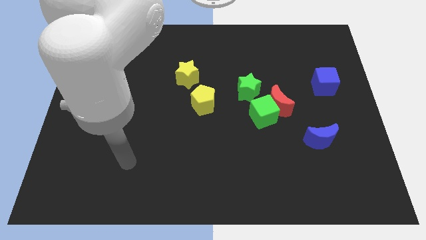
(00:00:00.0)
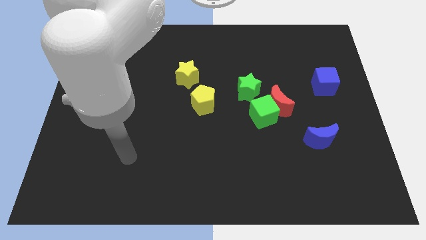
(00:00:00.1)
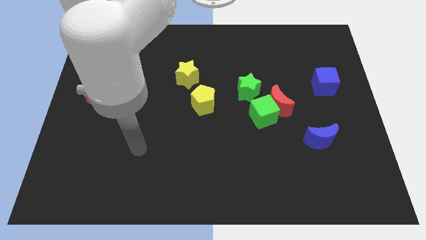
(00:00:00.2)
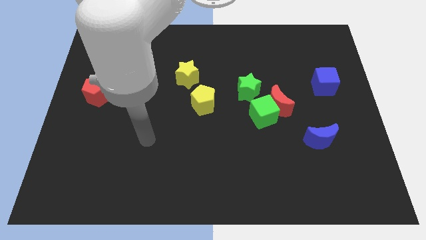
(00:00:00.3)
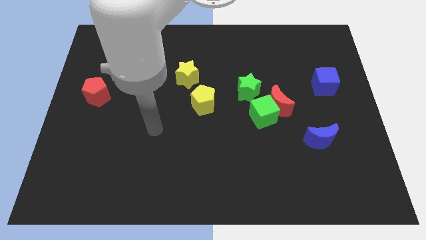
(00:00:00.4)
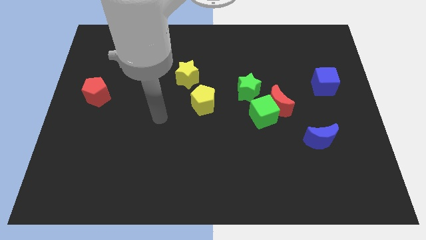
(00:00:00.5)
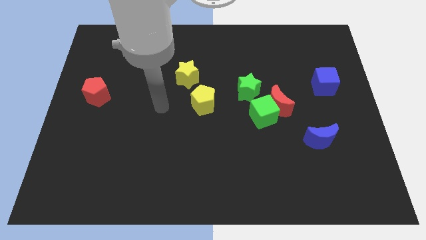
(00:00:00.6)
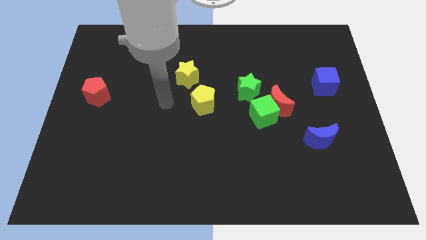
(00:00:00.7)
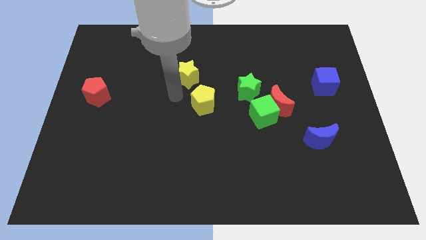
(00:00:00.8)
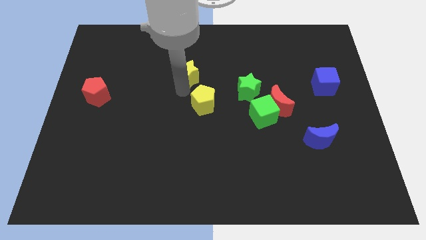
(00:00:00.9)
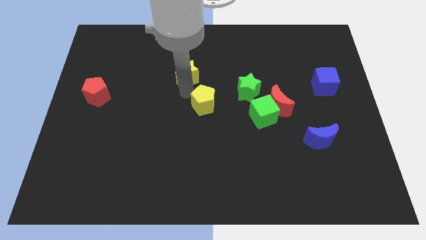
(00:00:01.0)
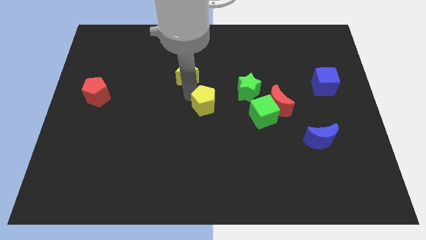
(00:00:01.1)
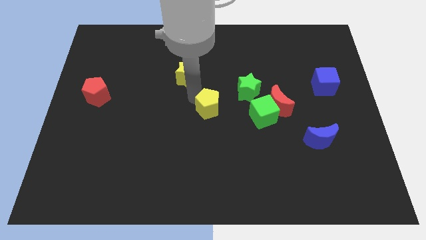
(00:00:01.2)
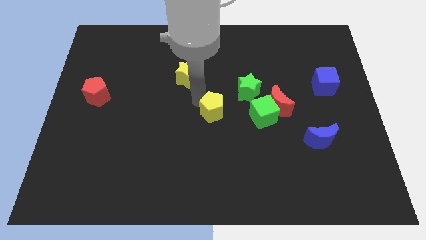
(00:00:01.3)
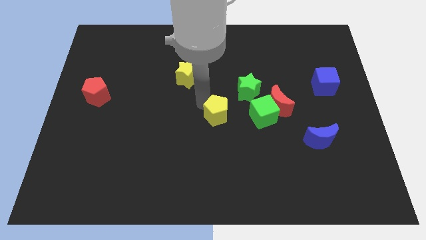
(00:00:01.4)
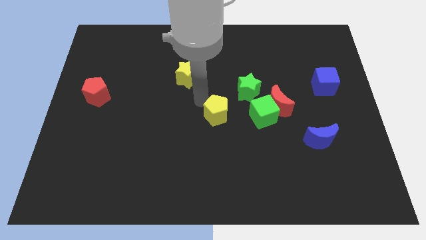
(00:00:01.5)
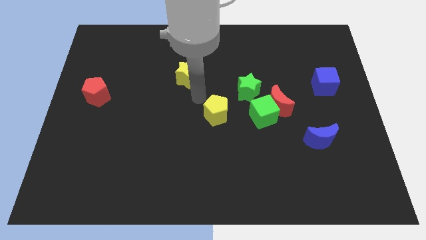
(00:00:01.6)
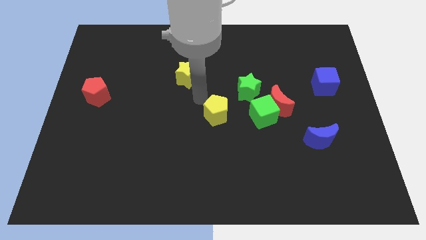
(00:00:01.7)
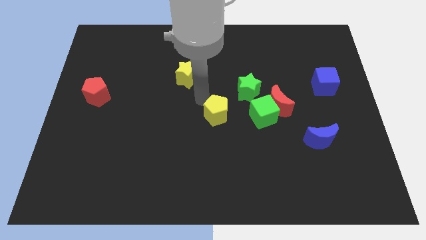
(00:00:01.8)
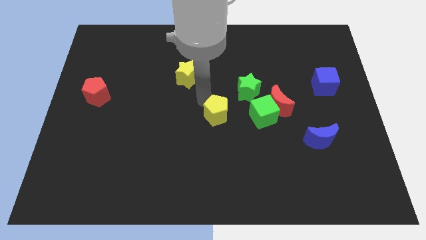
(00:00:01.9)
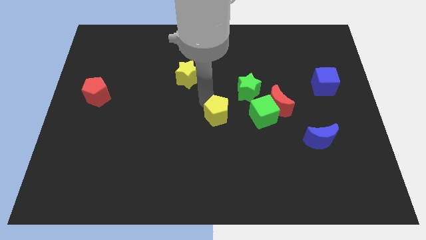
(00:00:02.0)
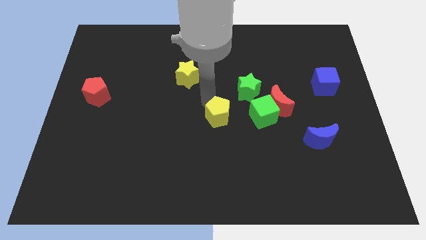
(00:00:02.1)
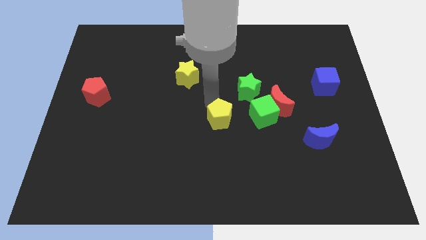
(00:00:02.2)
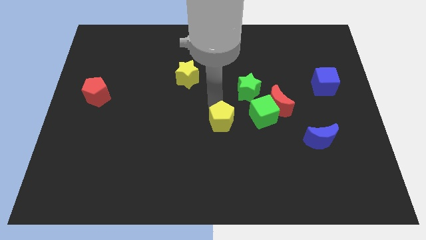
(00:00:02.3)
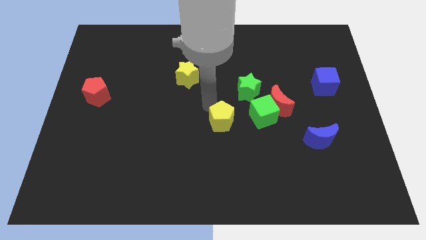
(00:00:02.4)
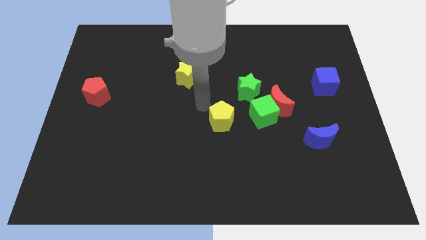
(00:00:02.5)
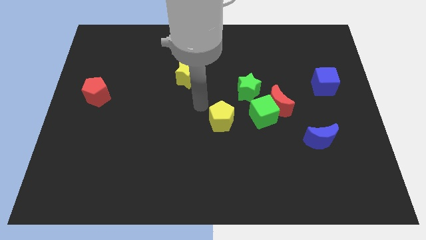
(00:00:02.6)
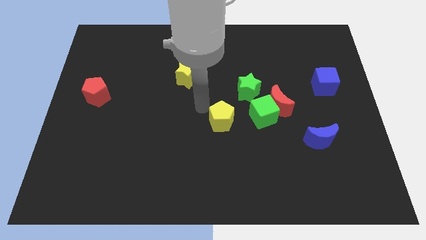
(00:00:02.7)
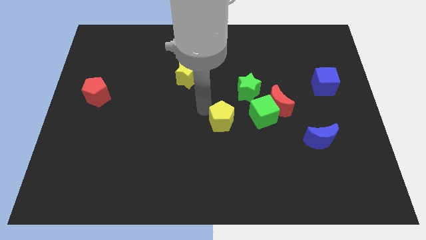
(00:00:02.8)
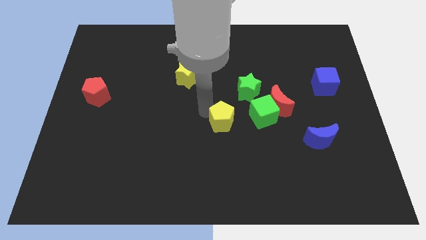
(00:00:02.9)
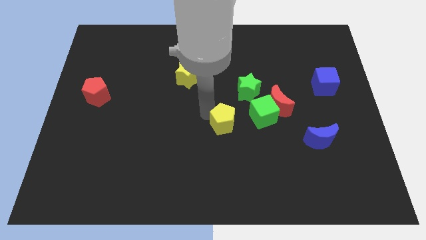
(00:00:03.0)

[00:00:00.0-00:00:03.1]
push the yellow pentagon a little bit diagonally downwards and to the right

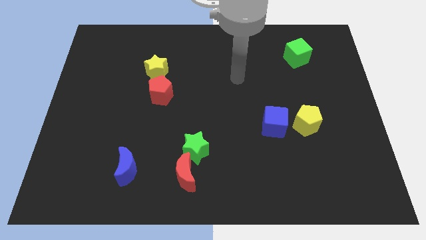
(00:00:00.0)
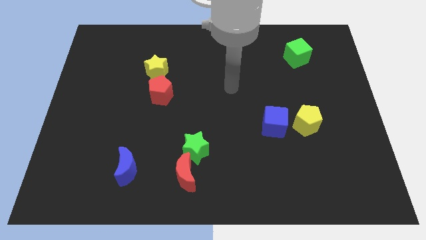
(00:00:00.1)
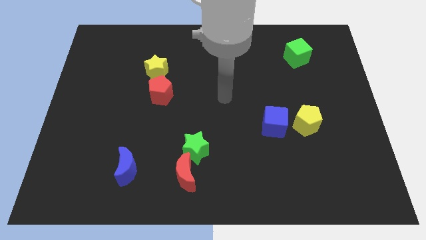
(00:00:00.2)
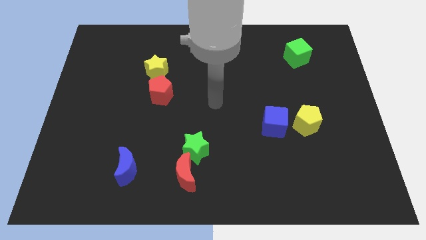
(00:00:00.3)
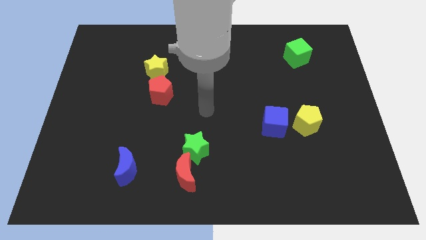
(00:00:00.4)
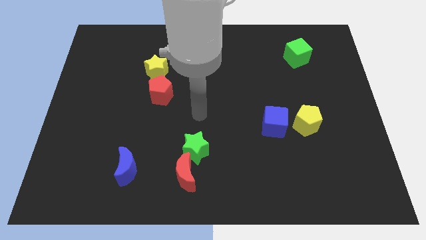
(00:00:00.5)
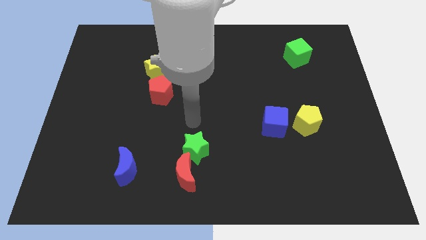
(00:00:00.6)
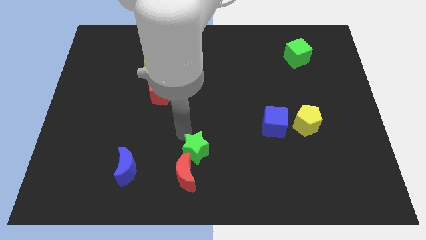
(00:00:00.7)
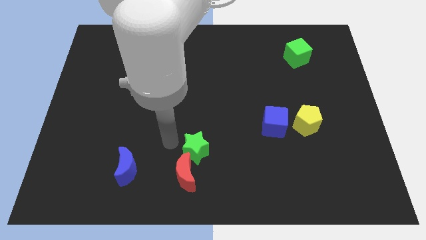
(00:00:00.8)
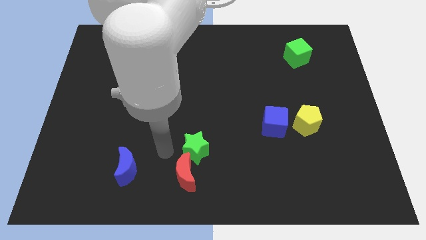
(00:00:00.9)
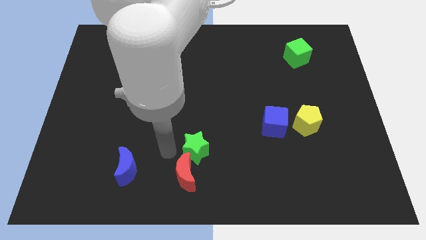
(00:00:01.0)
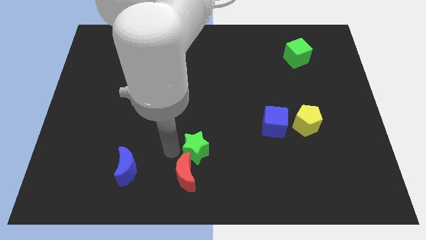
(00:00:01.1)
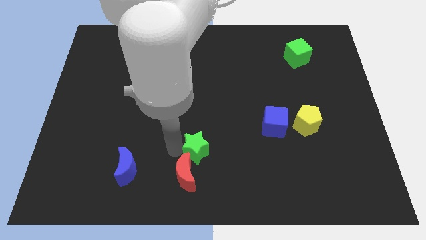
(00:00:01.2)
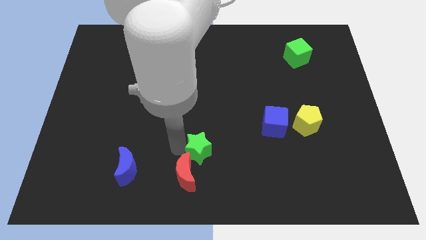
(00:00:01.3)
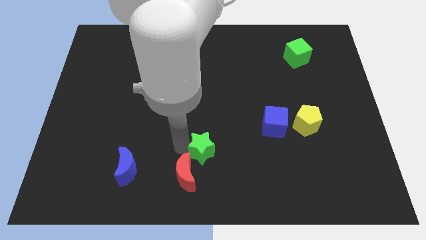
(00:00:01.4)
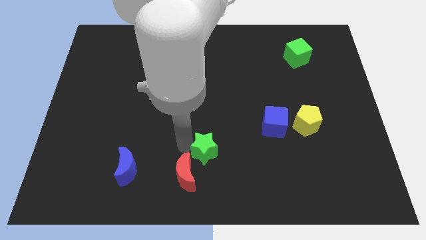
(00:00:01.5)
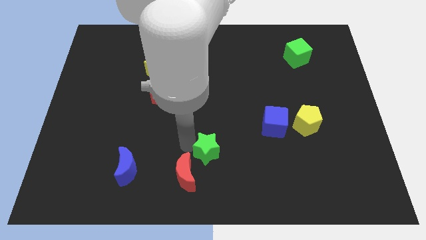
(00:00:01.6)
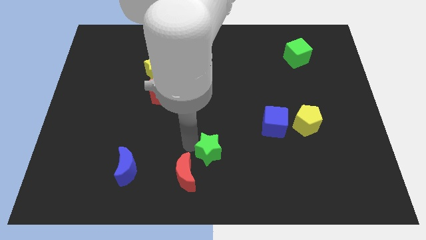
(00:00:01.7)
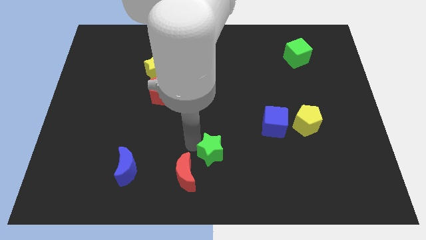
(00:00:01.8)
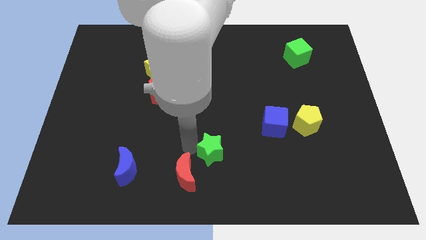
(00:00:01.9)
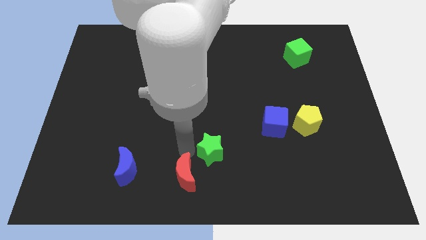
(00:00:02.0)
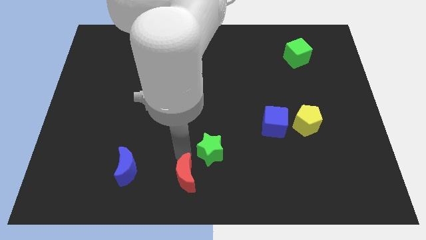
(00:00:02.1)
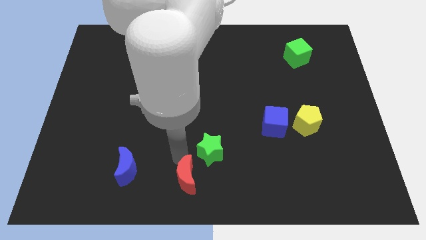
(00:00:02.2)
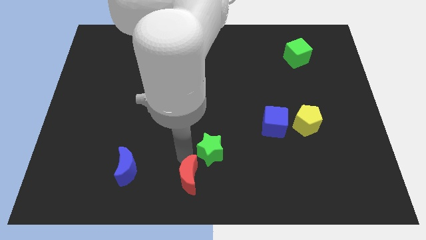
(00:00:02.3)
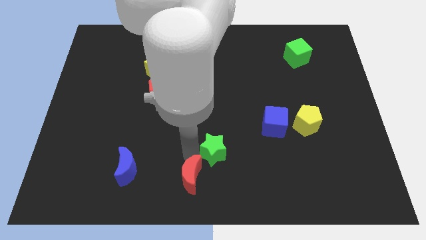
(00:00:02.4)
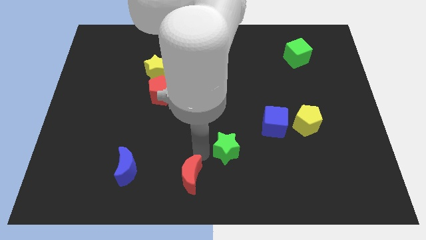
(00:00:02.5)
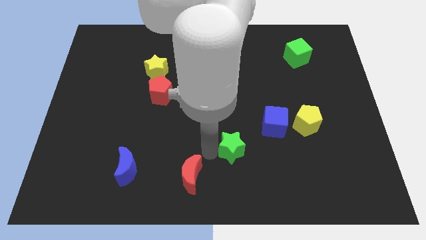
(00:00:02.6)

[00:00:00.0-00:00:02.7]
slide the green star right a bit

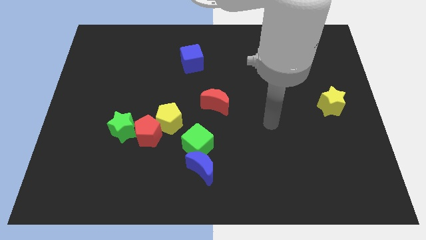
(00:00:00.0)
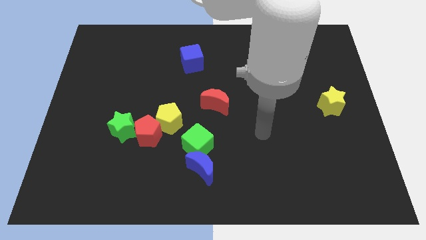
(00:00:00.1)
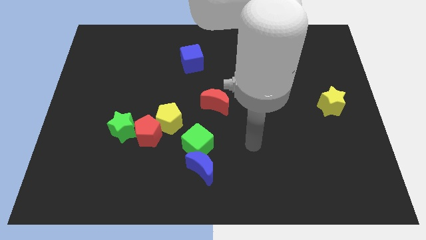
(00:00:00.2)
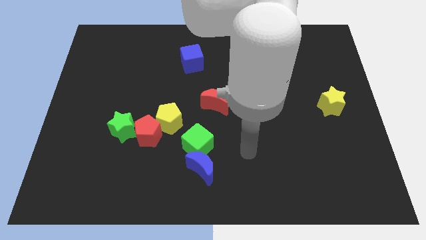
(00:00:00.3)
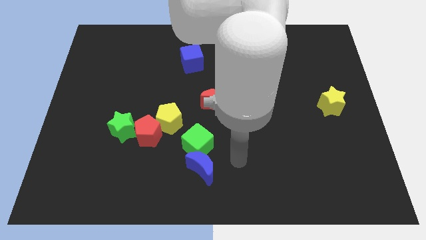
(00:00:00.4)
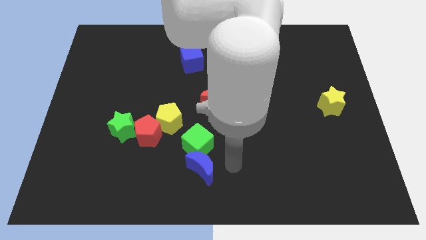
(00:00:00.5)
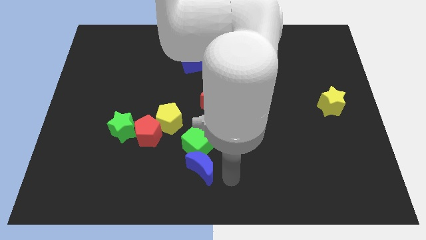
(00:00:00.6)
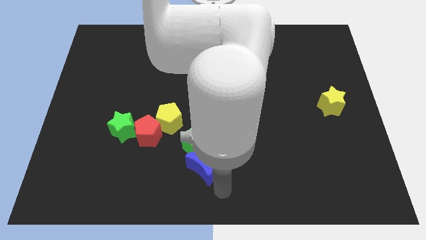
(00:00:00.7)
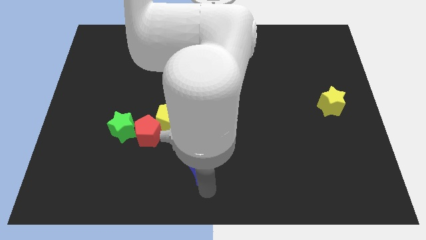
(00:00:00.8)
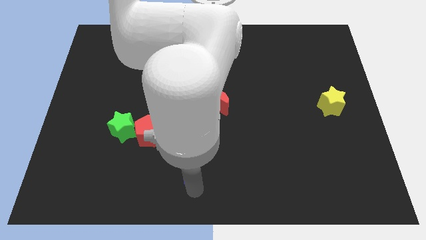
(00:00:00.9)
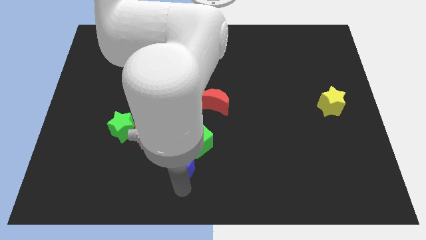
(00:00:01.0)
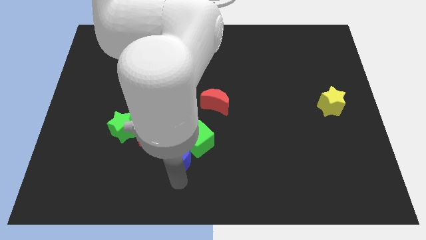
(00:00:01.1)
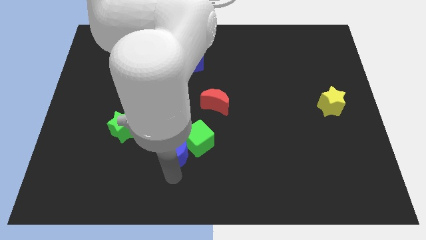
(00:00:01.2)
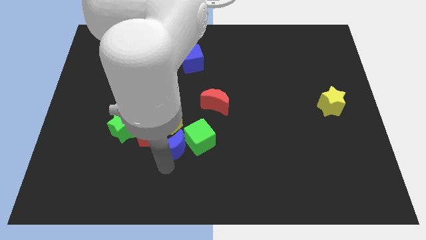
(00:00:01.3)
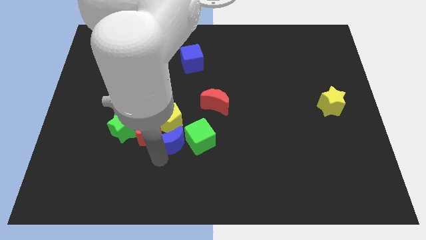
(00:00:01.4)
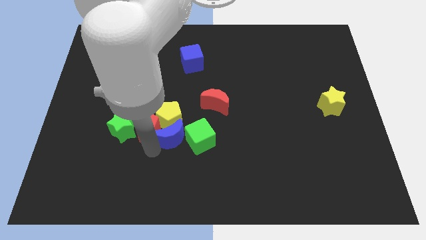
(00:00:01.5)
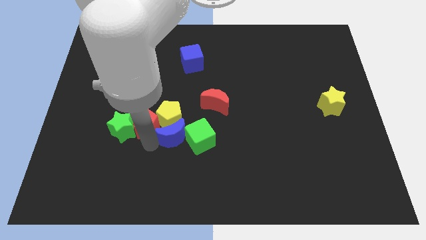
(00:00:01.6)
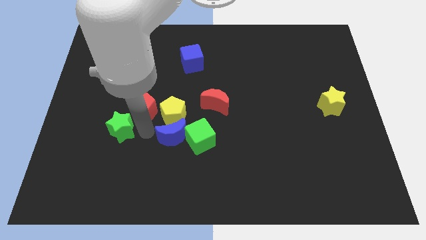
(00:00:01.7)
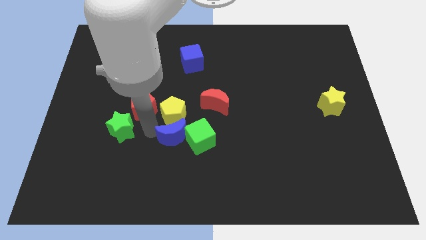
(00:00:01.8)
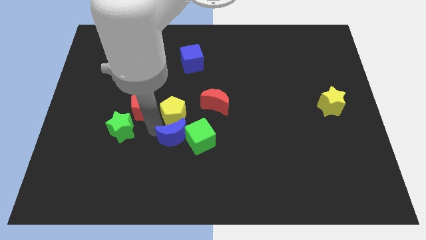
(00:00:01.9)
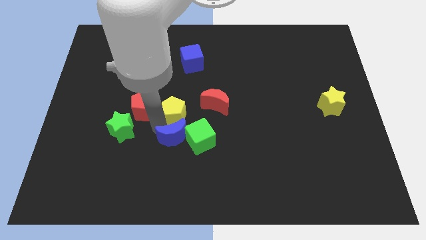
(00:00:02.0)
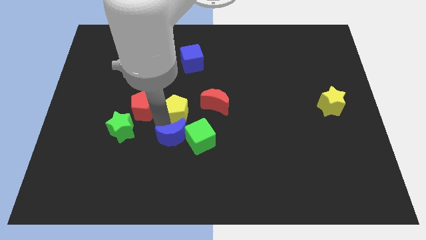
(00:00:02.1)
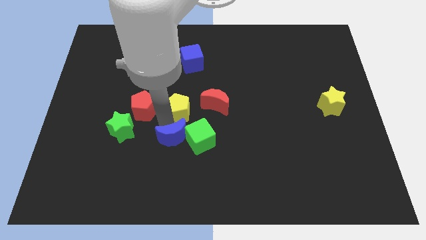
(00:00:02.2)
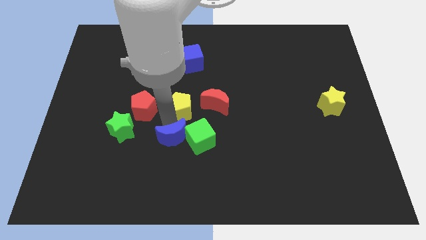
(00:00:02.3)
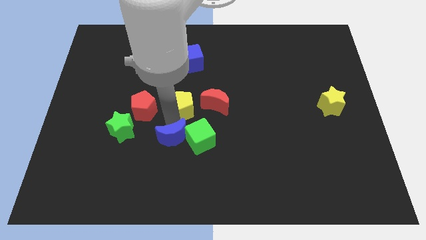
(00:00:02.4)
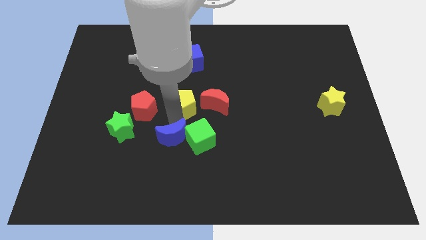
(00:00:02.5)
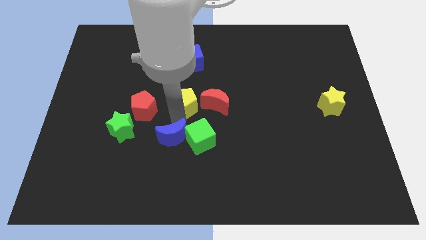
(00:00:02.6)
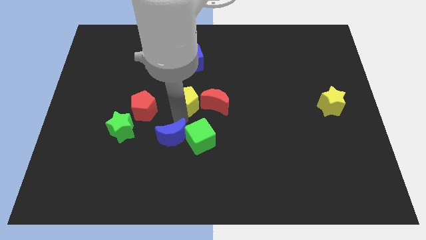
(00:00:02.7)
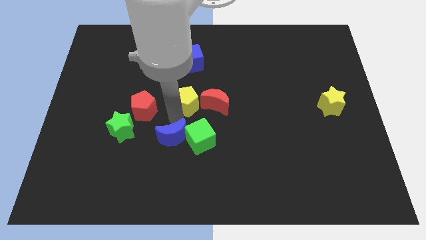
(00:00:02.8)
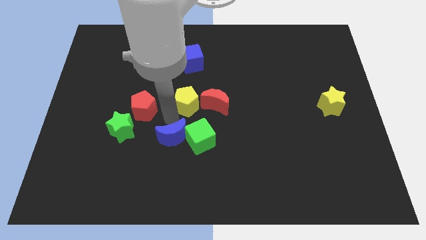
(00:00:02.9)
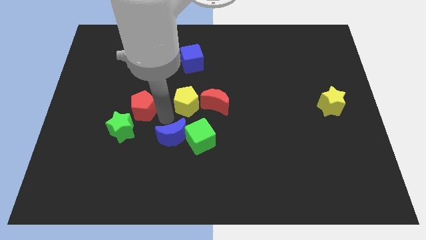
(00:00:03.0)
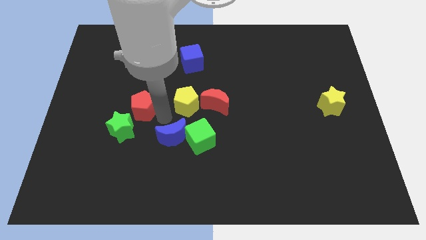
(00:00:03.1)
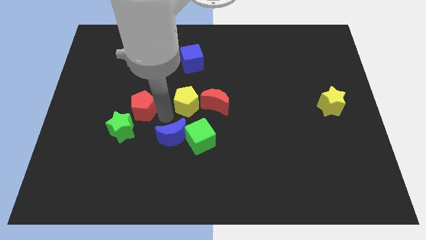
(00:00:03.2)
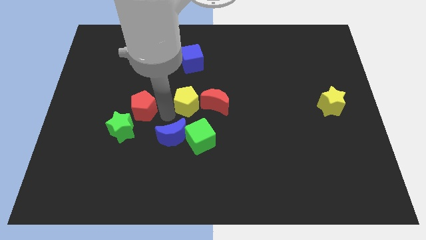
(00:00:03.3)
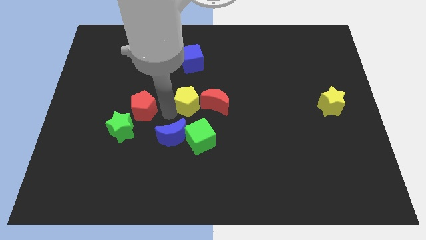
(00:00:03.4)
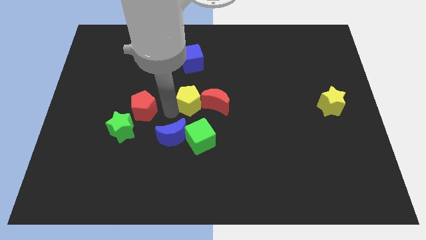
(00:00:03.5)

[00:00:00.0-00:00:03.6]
slightly push the yellow pentagon upwards and to the right diagonally
